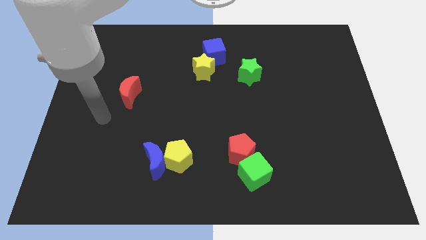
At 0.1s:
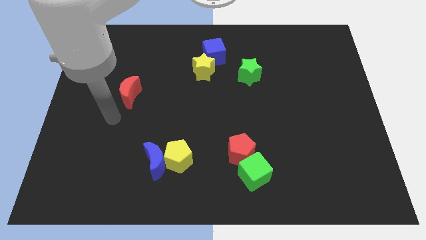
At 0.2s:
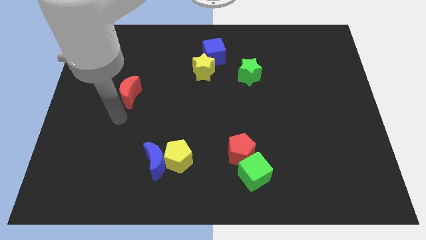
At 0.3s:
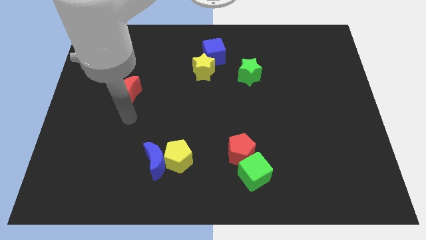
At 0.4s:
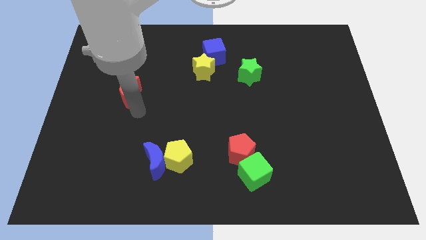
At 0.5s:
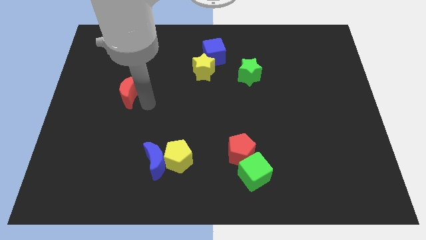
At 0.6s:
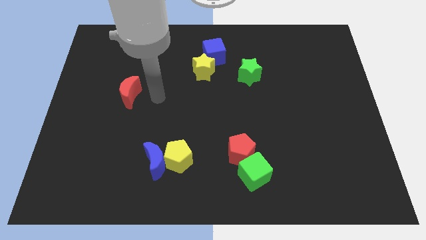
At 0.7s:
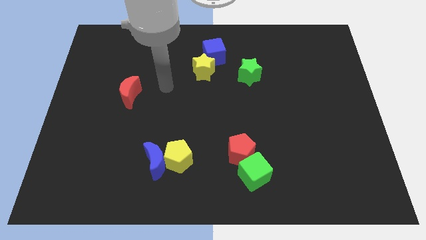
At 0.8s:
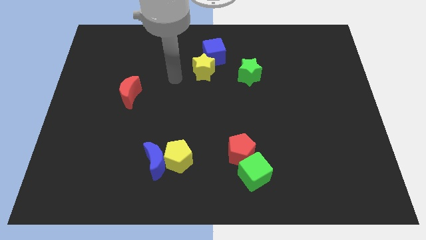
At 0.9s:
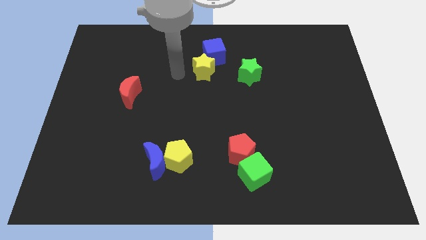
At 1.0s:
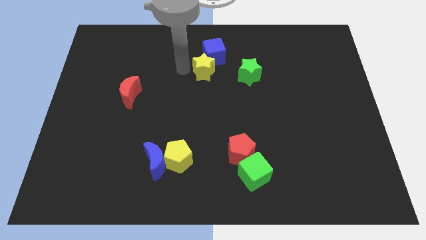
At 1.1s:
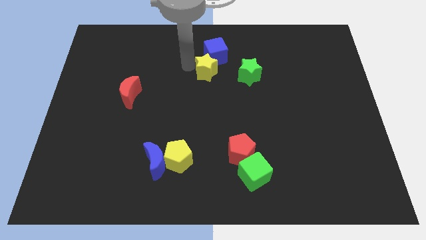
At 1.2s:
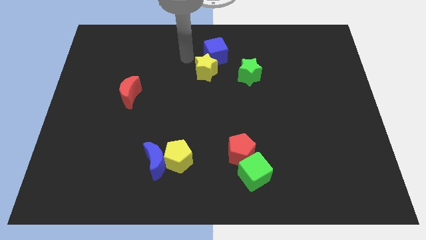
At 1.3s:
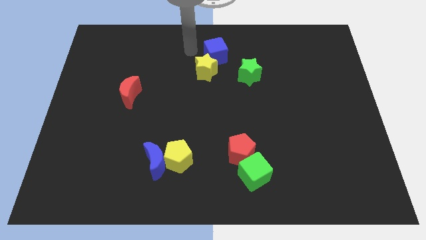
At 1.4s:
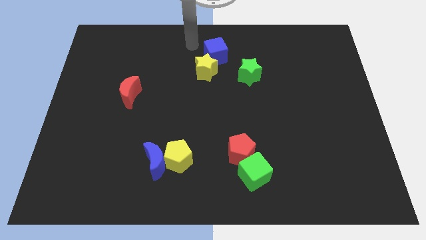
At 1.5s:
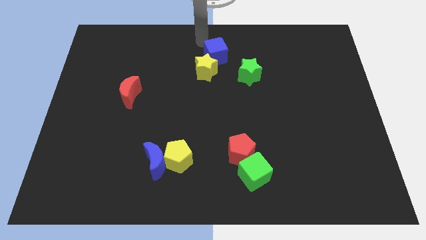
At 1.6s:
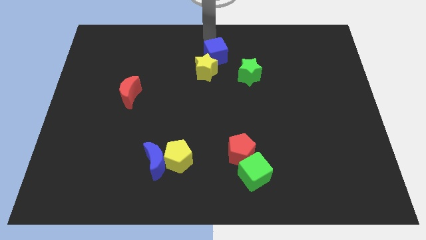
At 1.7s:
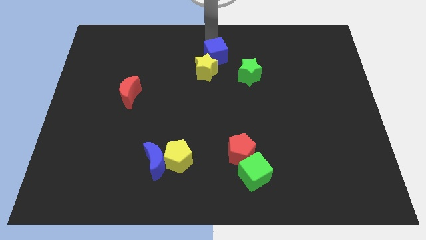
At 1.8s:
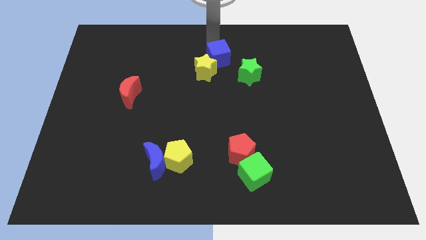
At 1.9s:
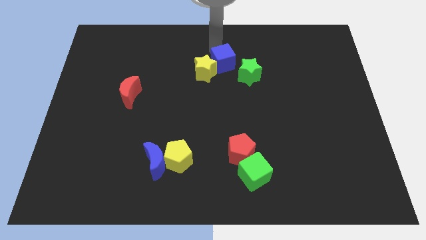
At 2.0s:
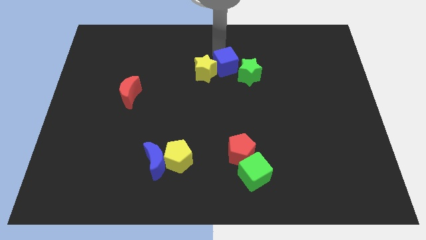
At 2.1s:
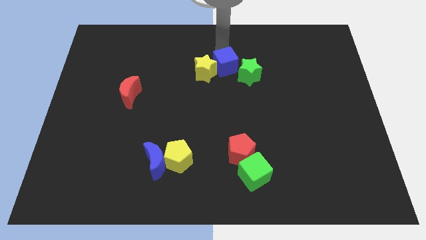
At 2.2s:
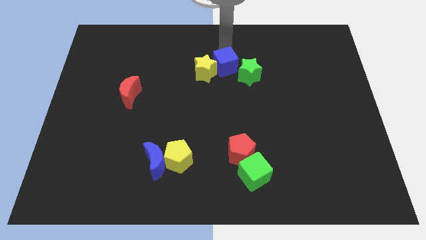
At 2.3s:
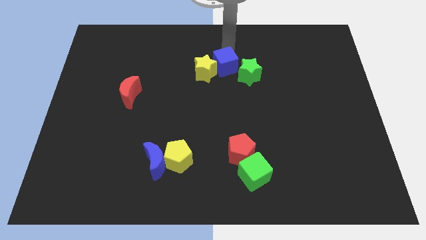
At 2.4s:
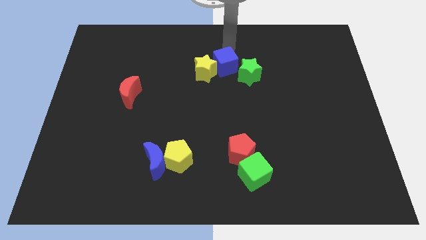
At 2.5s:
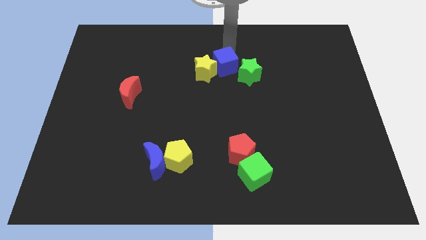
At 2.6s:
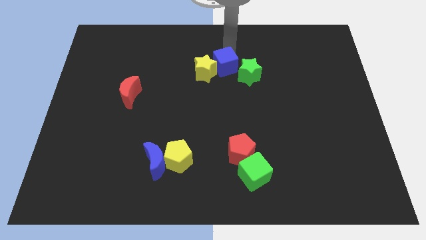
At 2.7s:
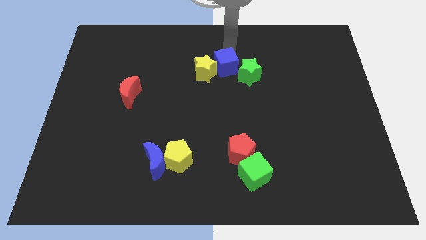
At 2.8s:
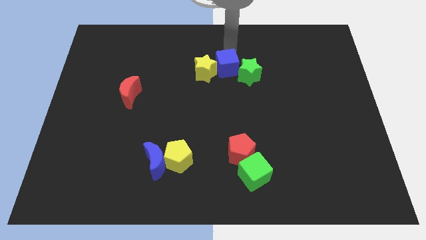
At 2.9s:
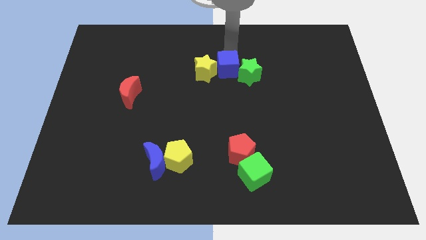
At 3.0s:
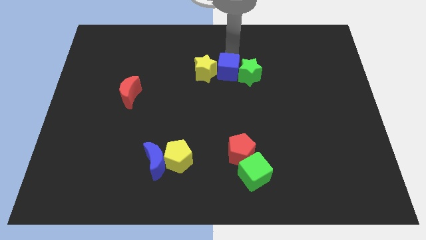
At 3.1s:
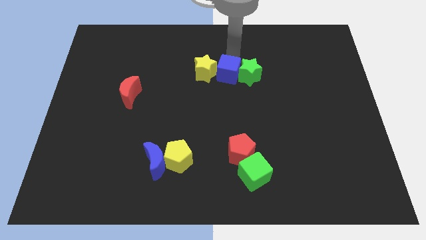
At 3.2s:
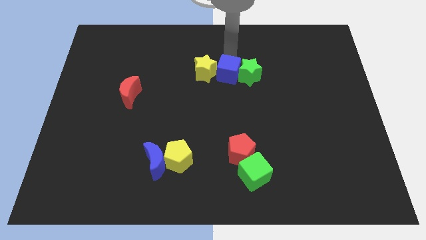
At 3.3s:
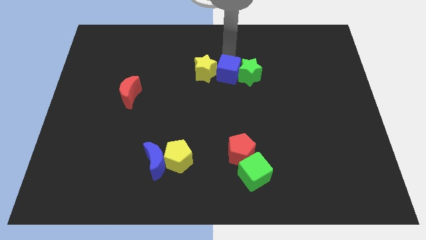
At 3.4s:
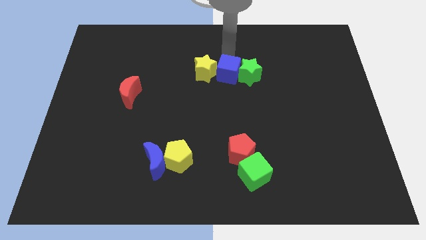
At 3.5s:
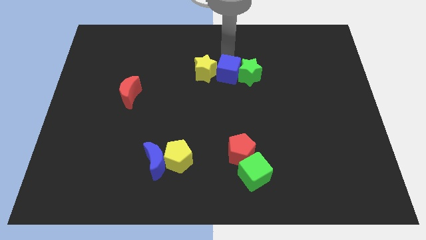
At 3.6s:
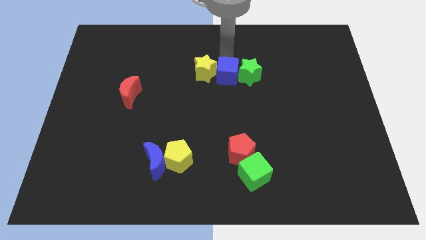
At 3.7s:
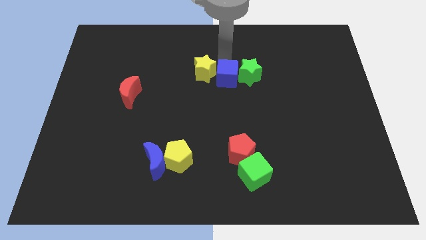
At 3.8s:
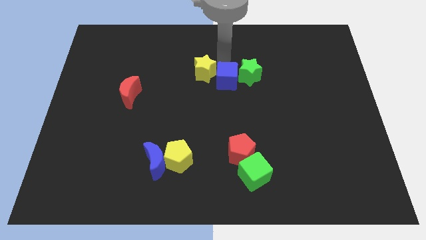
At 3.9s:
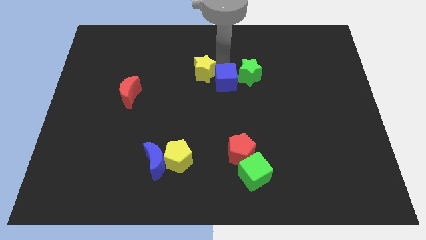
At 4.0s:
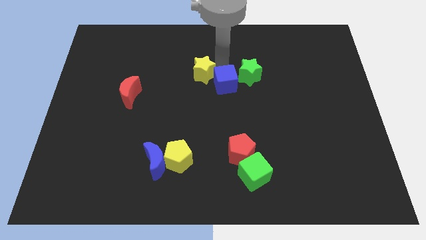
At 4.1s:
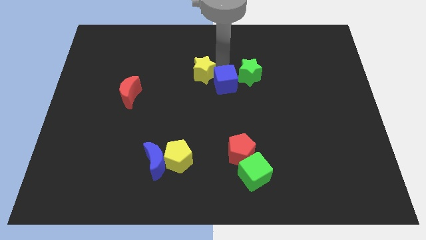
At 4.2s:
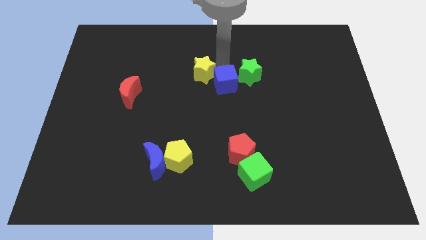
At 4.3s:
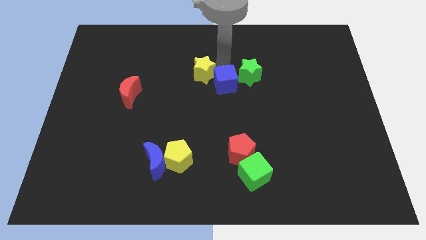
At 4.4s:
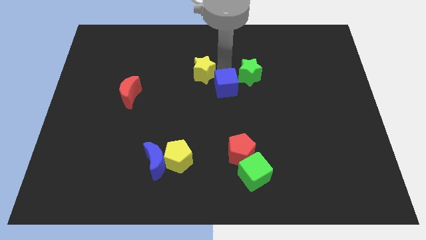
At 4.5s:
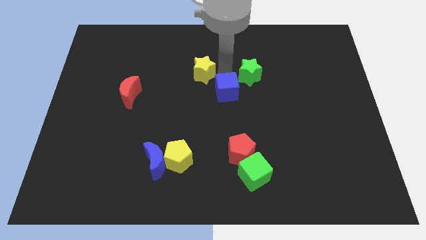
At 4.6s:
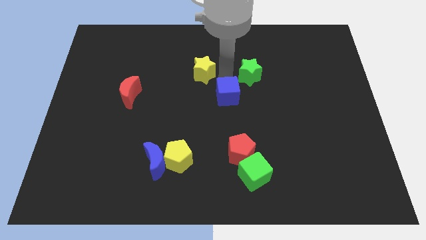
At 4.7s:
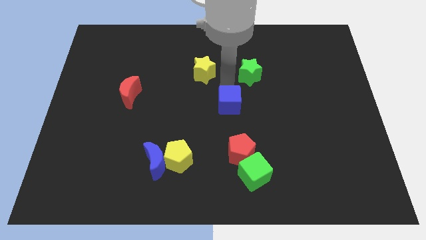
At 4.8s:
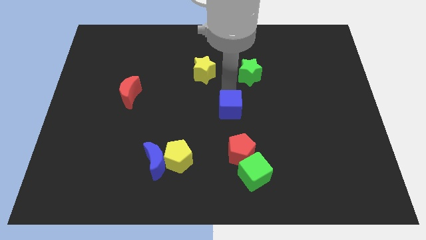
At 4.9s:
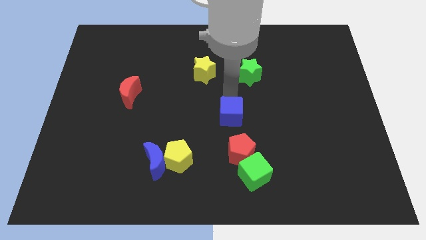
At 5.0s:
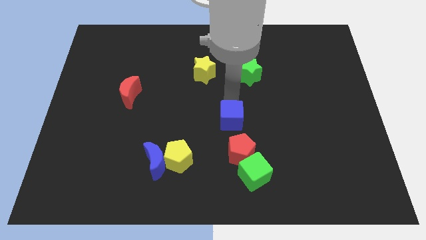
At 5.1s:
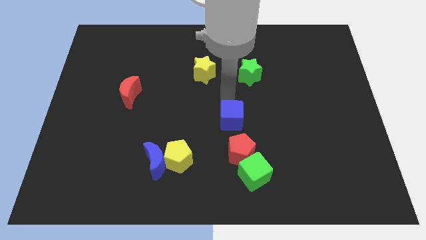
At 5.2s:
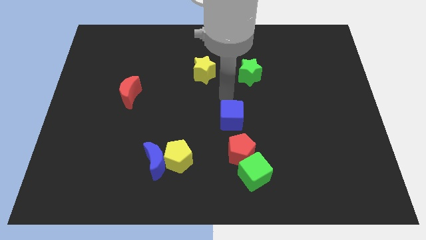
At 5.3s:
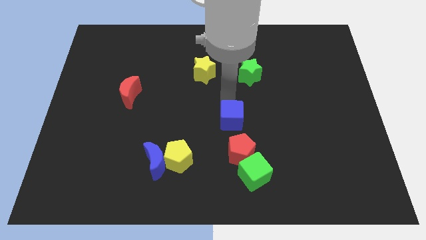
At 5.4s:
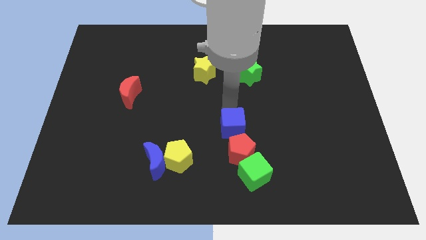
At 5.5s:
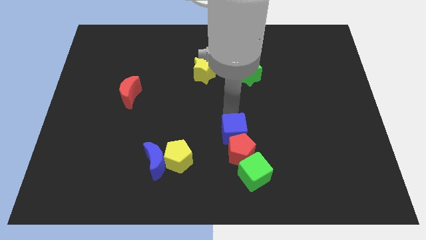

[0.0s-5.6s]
move the blue cube to the red pentagon

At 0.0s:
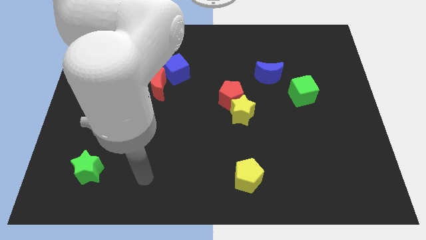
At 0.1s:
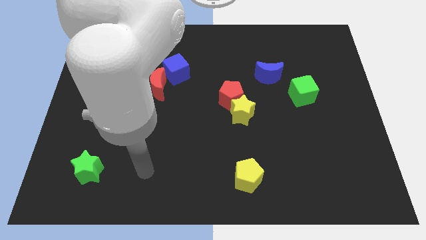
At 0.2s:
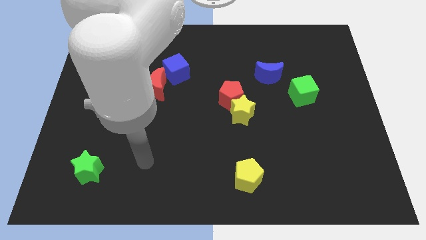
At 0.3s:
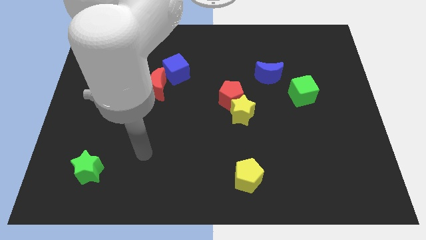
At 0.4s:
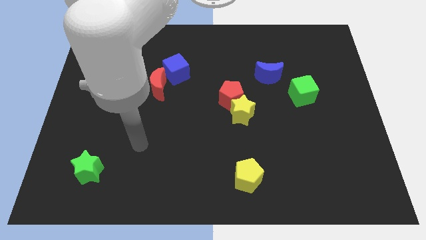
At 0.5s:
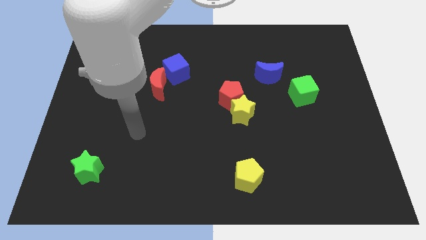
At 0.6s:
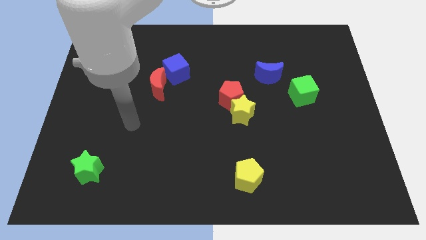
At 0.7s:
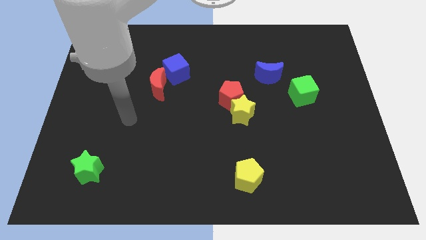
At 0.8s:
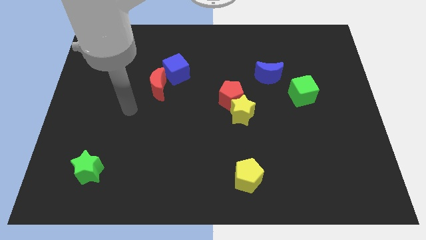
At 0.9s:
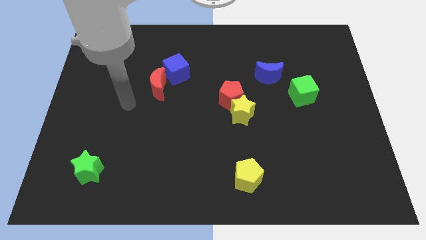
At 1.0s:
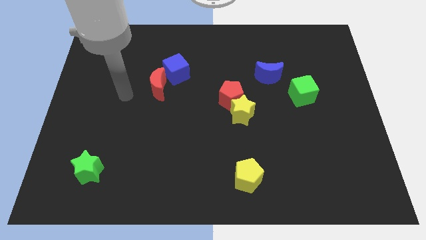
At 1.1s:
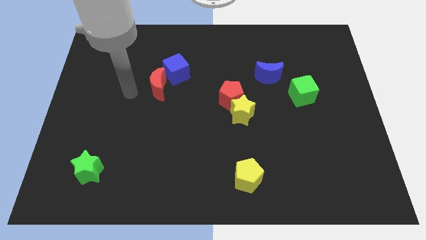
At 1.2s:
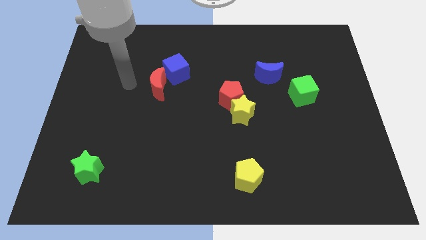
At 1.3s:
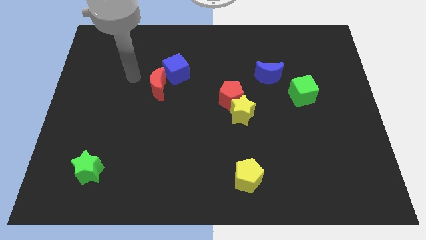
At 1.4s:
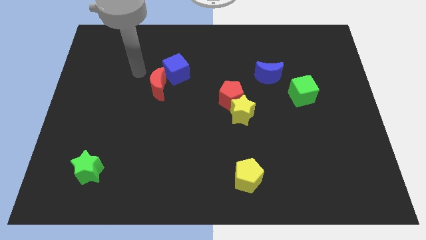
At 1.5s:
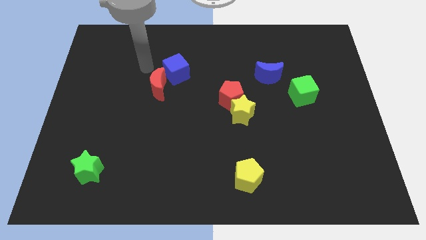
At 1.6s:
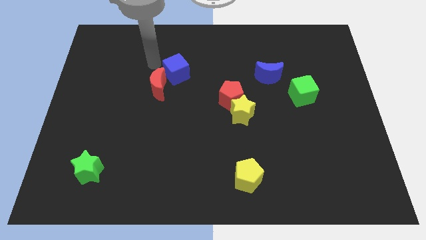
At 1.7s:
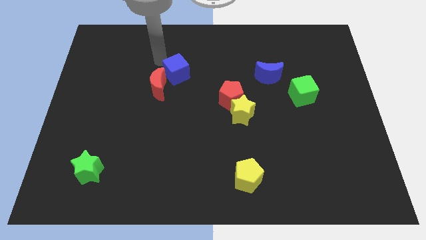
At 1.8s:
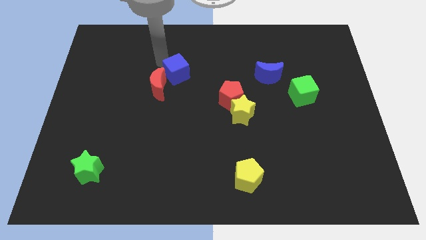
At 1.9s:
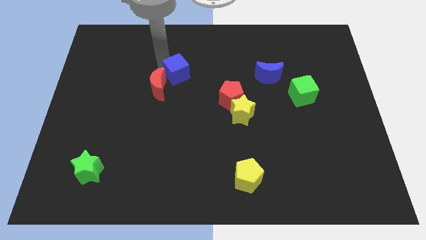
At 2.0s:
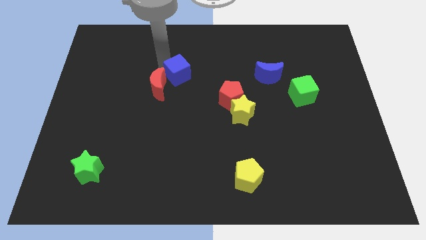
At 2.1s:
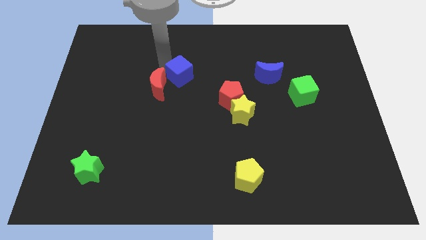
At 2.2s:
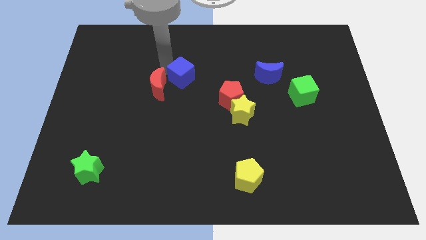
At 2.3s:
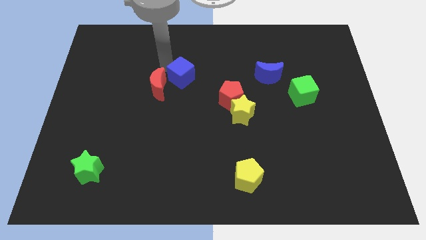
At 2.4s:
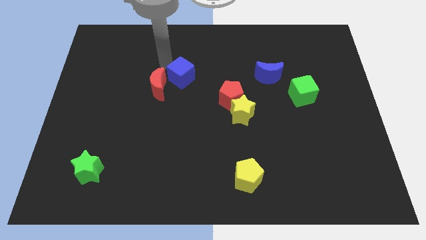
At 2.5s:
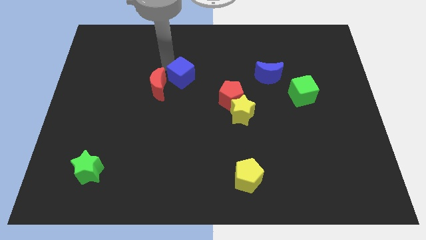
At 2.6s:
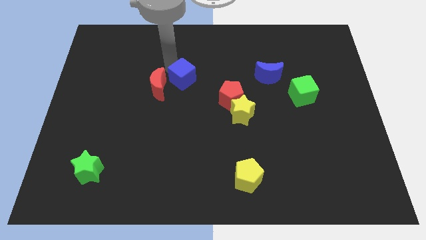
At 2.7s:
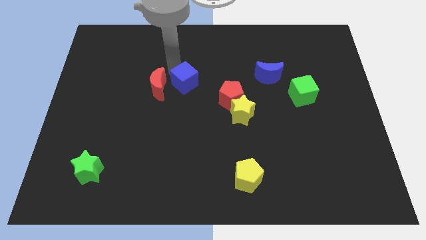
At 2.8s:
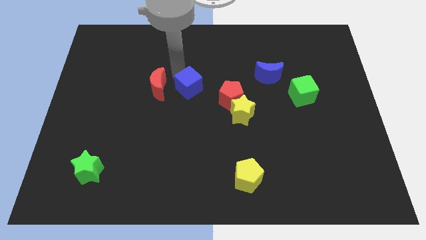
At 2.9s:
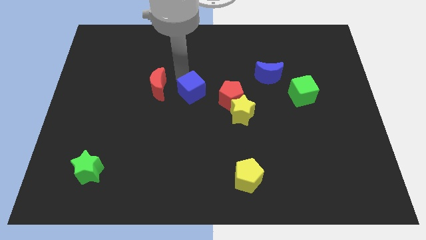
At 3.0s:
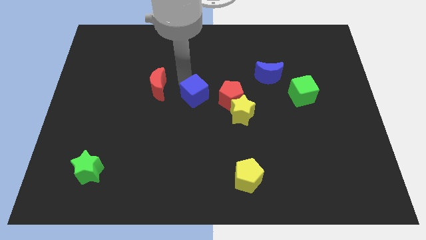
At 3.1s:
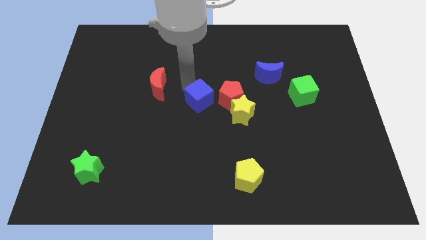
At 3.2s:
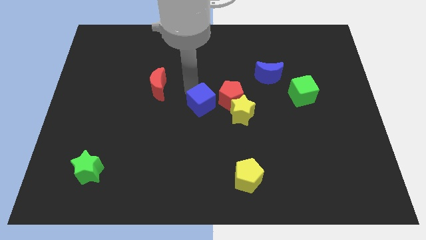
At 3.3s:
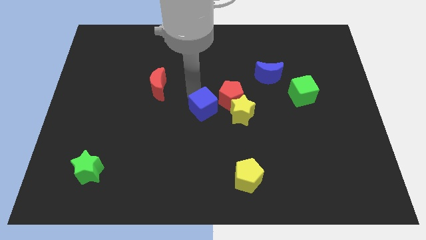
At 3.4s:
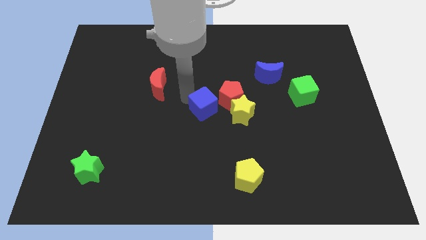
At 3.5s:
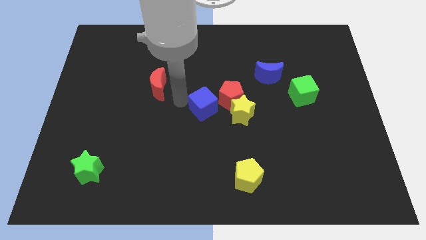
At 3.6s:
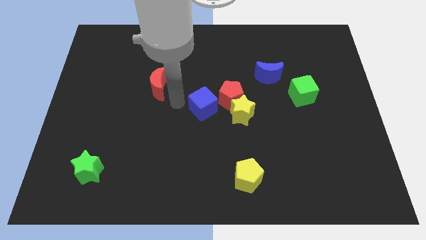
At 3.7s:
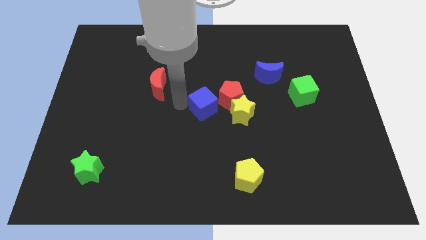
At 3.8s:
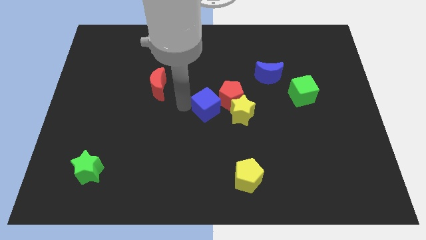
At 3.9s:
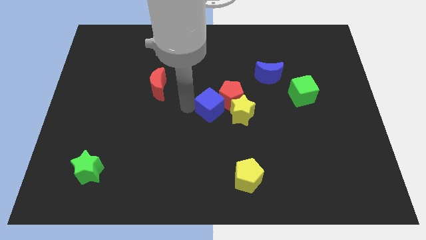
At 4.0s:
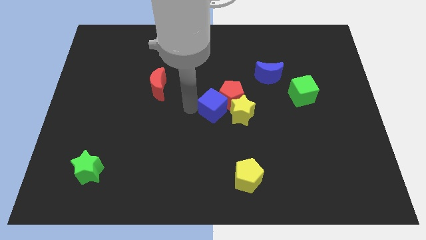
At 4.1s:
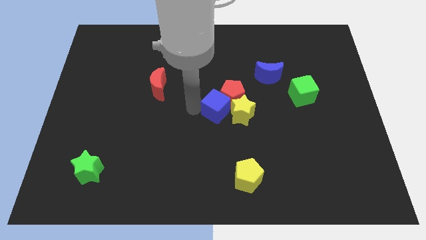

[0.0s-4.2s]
push the blue cube close to the yellow star
